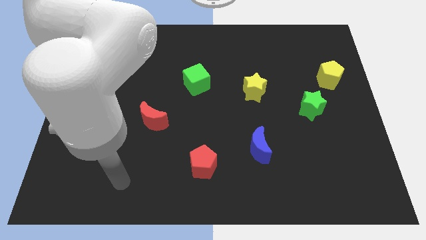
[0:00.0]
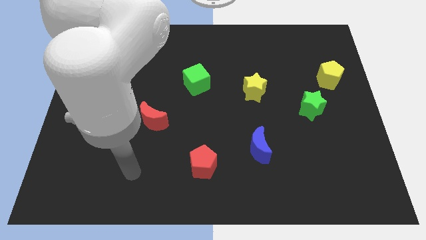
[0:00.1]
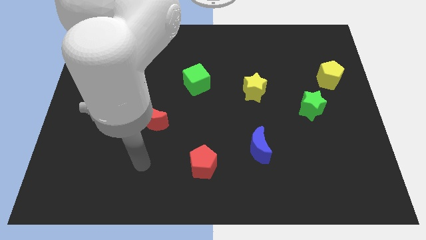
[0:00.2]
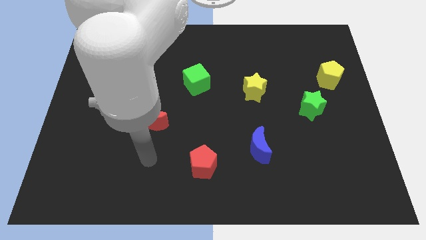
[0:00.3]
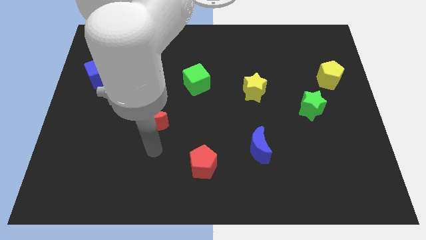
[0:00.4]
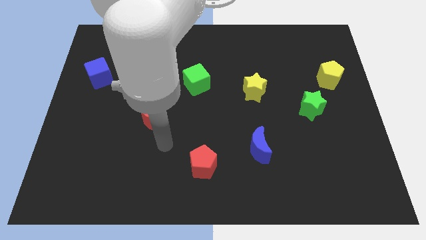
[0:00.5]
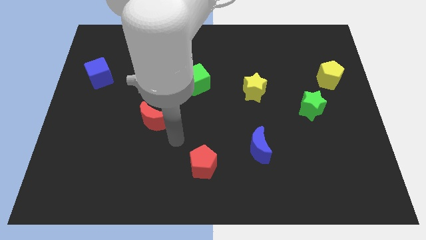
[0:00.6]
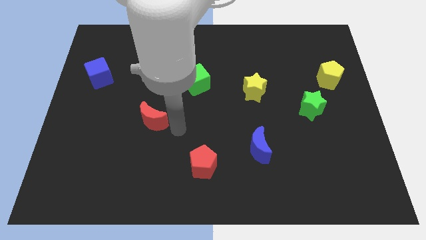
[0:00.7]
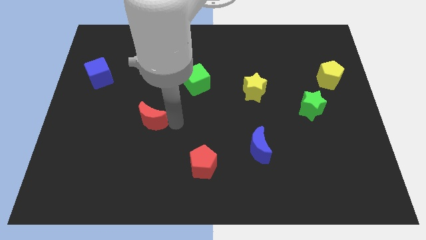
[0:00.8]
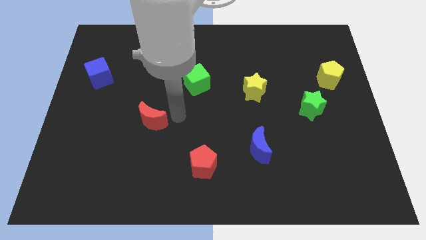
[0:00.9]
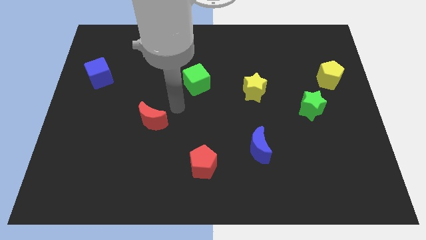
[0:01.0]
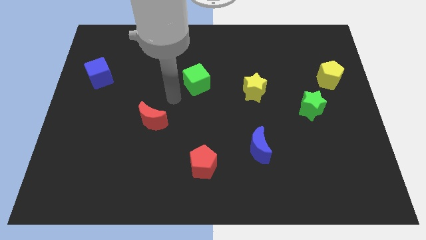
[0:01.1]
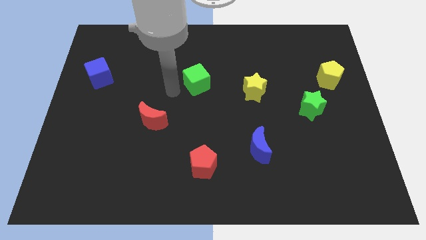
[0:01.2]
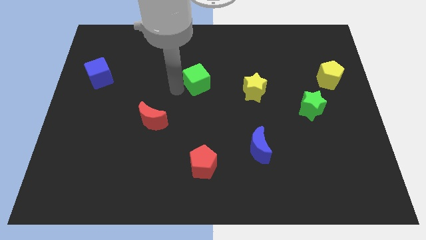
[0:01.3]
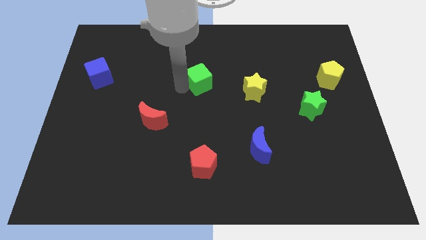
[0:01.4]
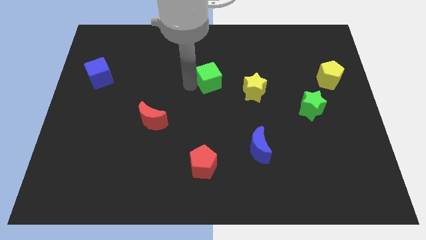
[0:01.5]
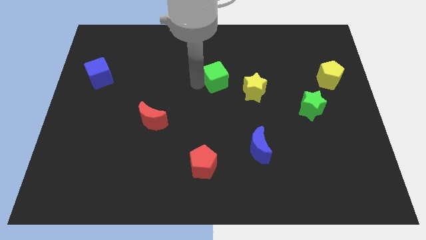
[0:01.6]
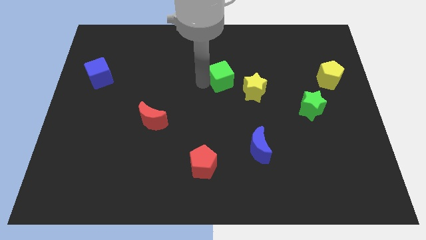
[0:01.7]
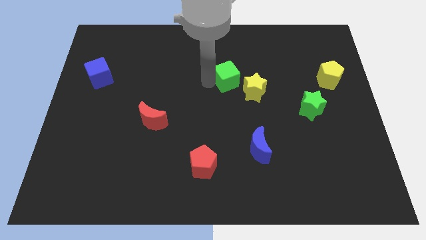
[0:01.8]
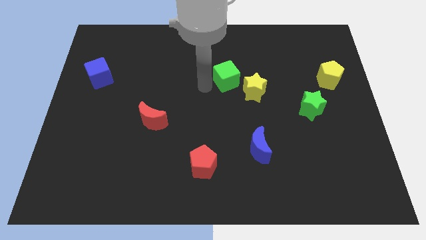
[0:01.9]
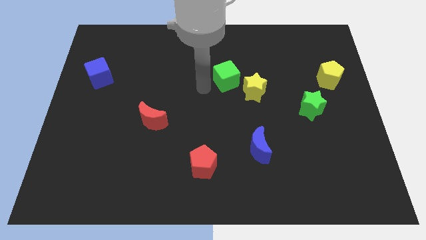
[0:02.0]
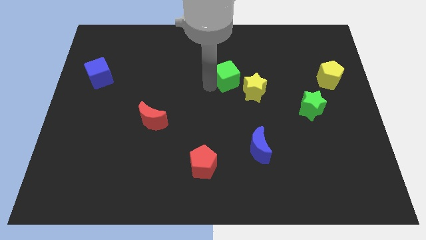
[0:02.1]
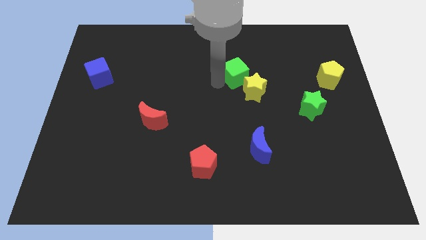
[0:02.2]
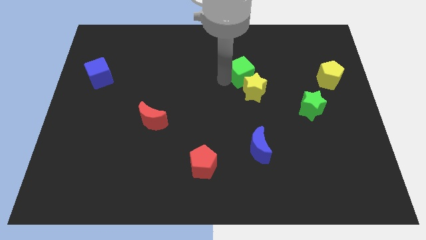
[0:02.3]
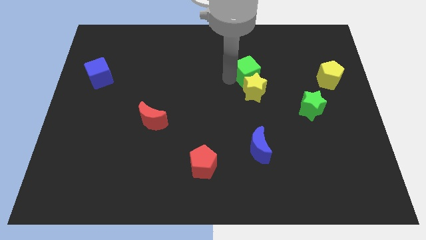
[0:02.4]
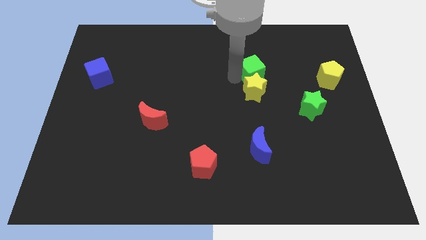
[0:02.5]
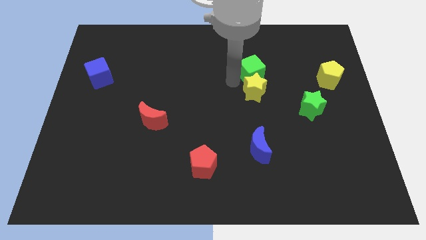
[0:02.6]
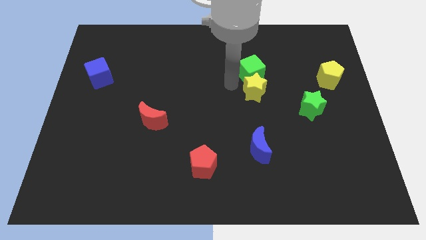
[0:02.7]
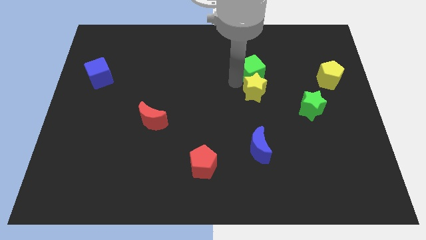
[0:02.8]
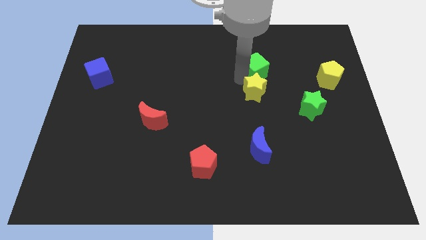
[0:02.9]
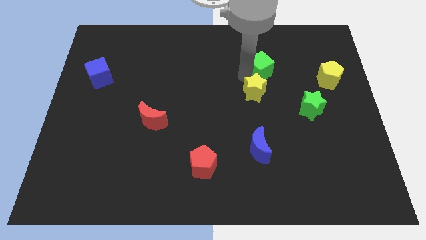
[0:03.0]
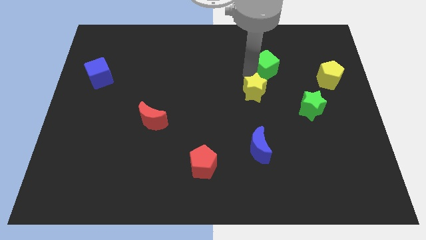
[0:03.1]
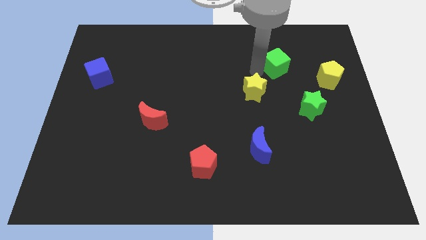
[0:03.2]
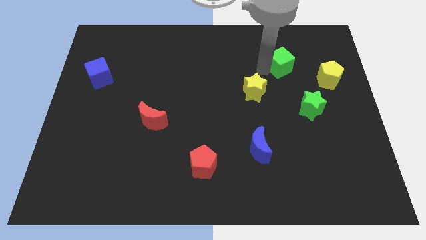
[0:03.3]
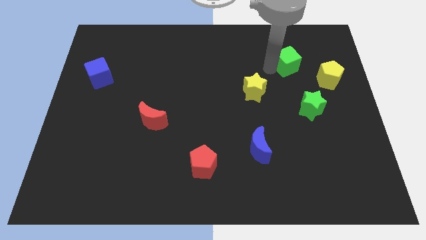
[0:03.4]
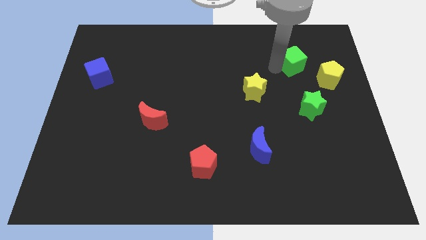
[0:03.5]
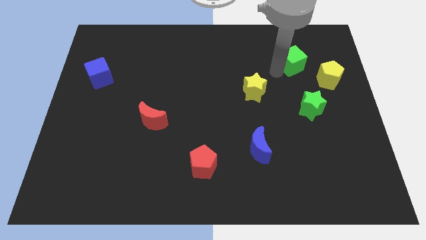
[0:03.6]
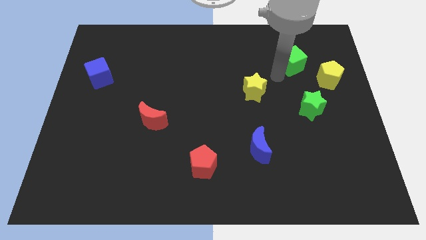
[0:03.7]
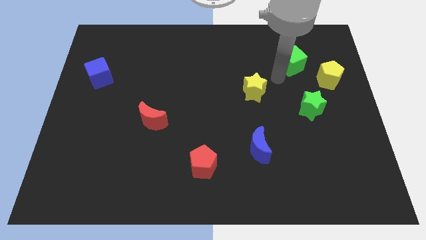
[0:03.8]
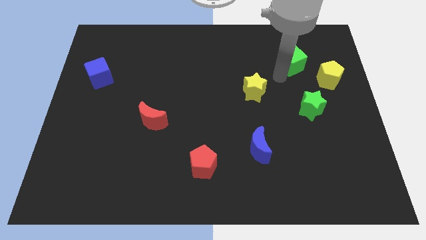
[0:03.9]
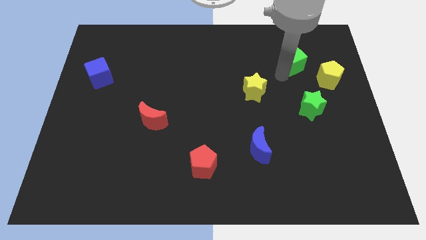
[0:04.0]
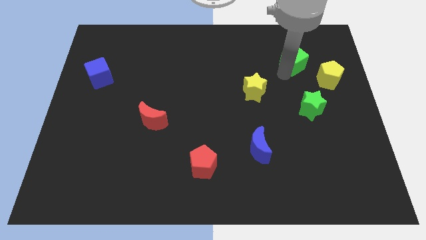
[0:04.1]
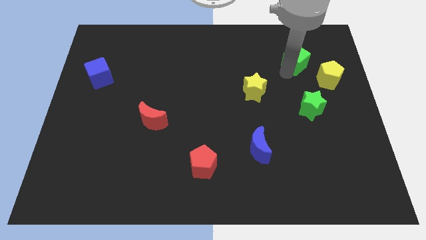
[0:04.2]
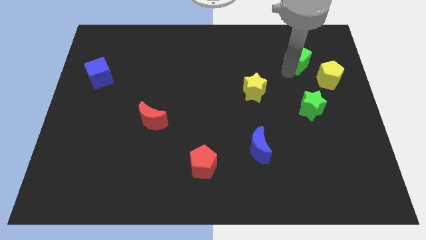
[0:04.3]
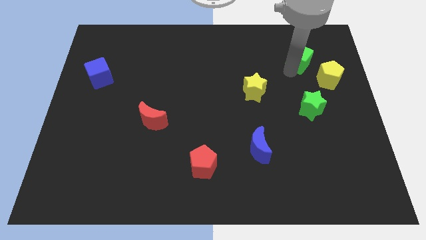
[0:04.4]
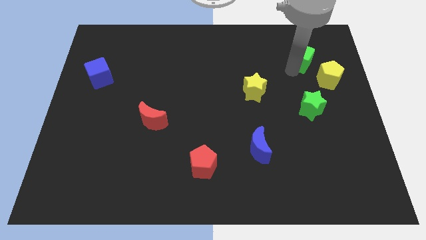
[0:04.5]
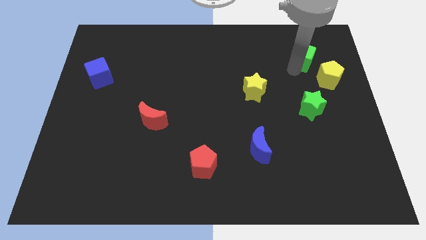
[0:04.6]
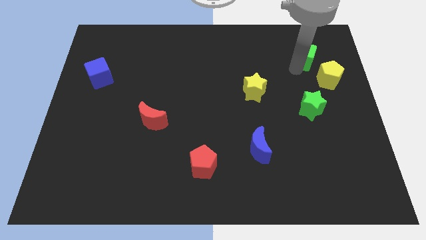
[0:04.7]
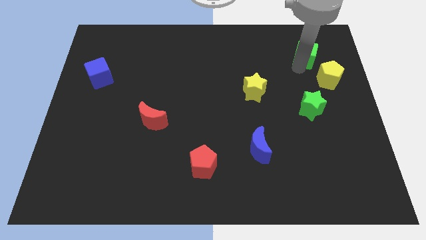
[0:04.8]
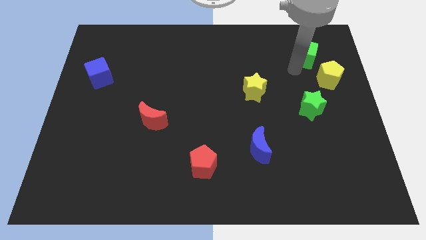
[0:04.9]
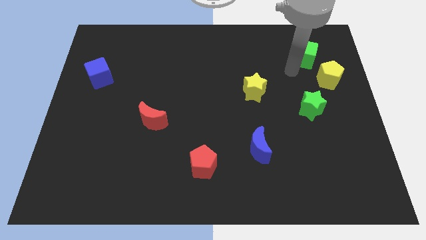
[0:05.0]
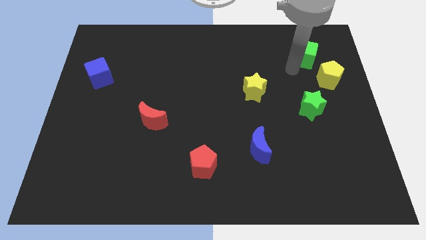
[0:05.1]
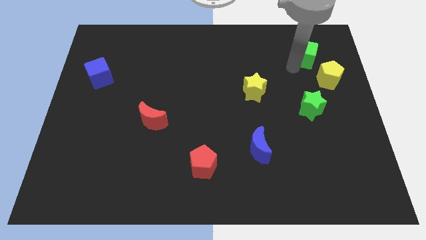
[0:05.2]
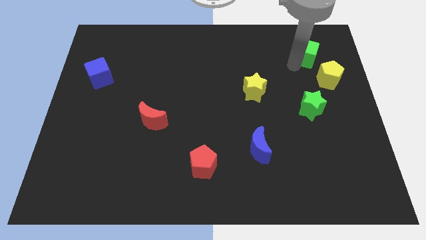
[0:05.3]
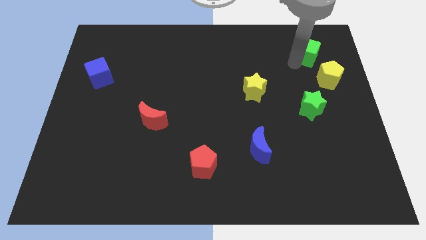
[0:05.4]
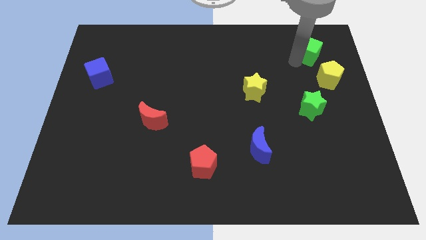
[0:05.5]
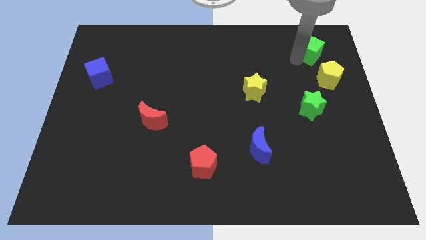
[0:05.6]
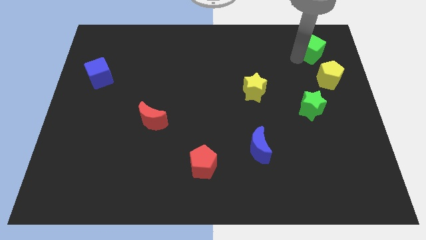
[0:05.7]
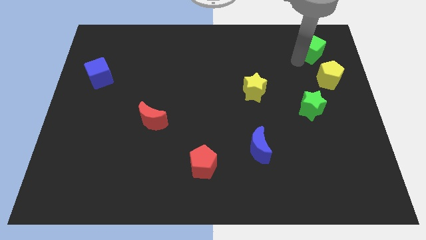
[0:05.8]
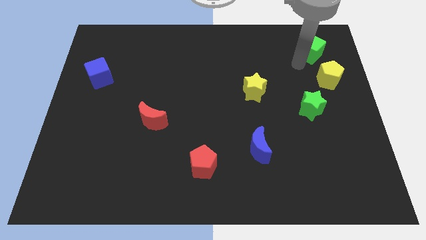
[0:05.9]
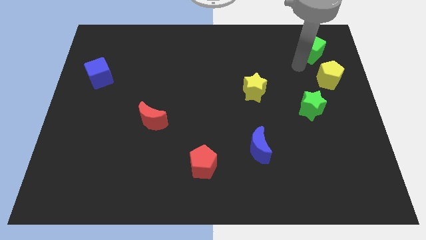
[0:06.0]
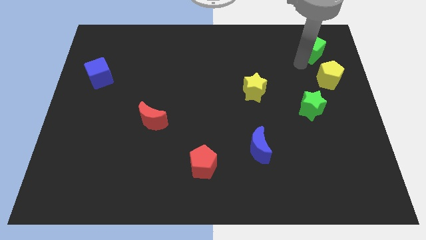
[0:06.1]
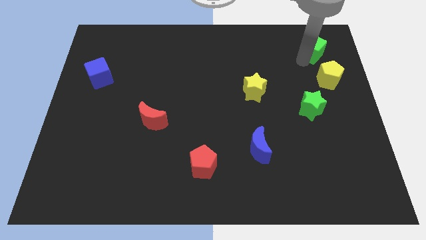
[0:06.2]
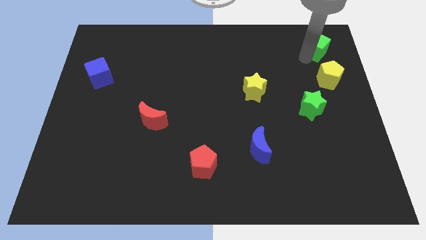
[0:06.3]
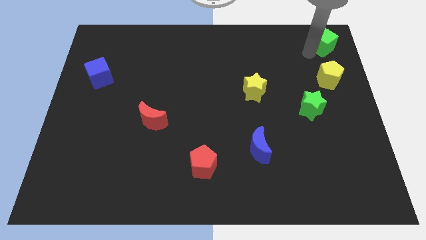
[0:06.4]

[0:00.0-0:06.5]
put the green cube to the top right of the board

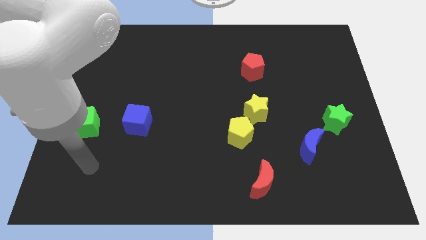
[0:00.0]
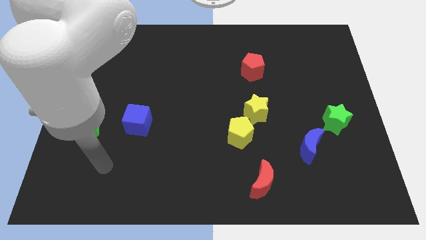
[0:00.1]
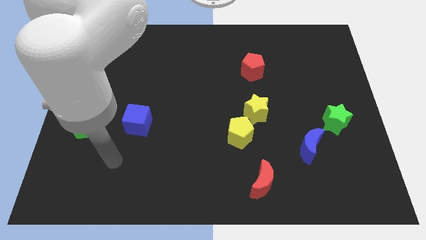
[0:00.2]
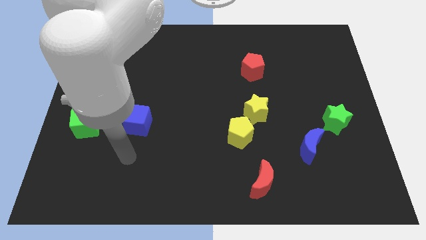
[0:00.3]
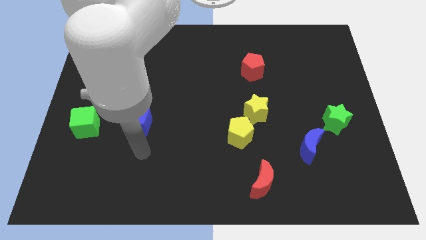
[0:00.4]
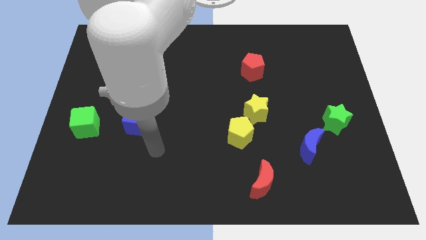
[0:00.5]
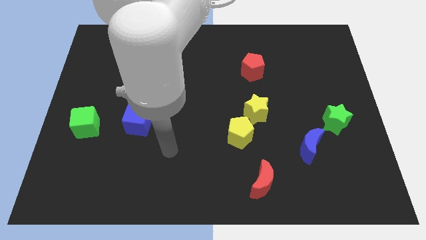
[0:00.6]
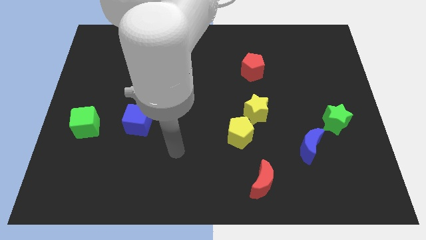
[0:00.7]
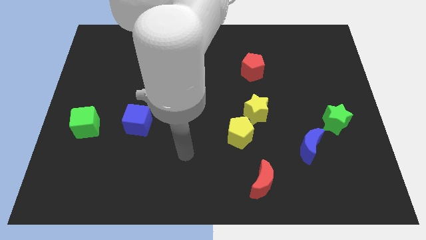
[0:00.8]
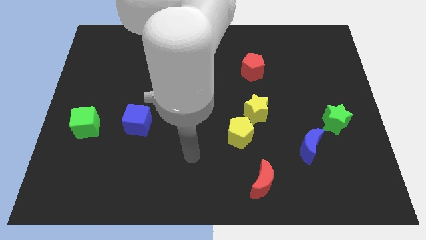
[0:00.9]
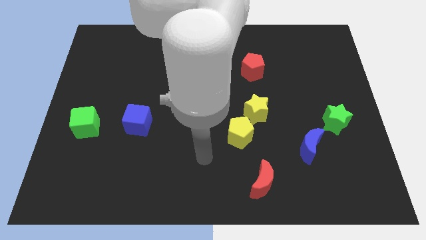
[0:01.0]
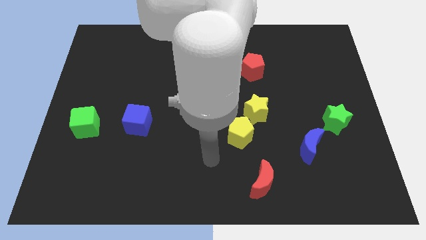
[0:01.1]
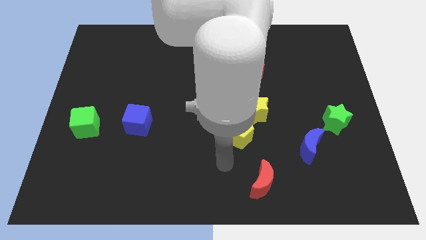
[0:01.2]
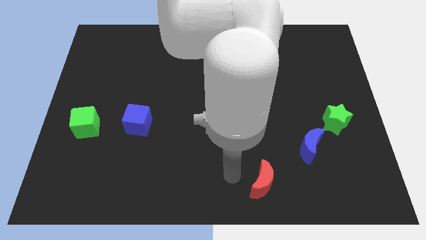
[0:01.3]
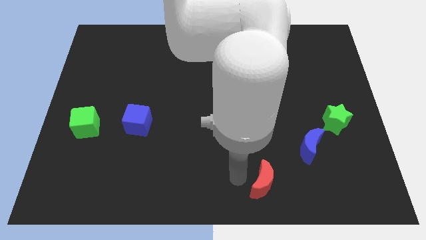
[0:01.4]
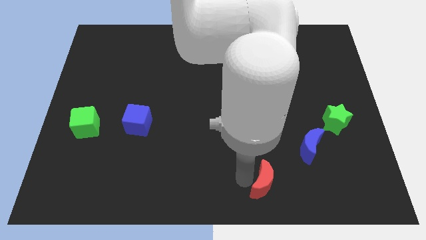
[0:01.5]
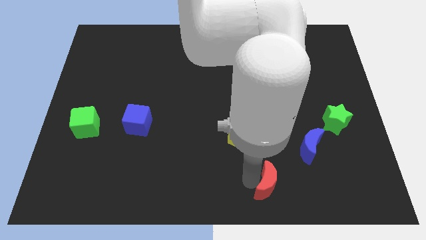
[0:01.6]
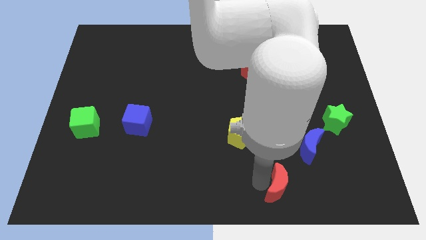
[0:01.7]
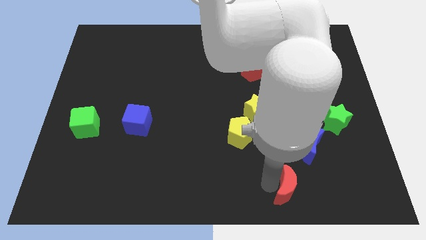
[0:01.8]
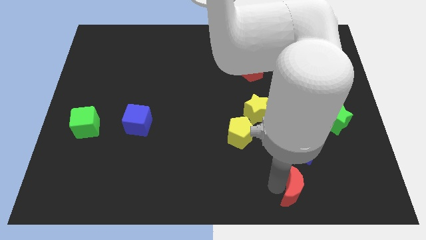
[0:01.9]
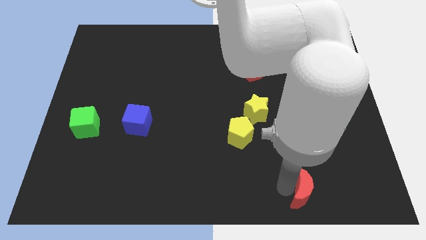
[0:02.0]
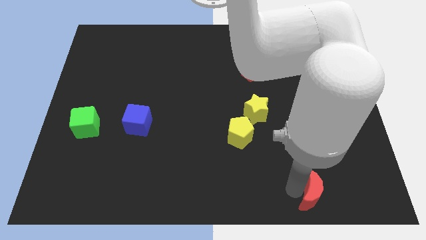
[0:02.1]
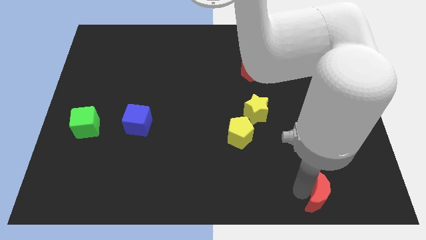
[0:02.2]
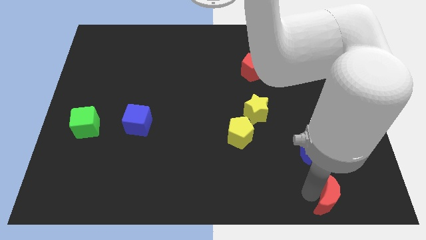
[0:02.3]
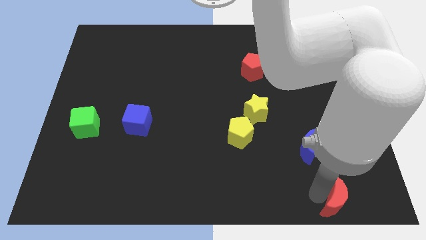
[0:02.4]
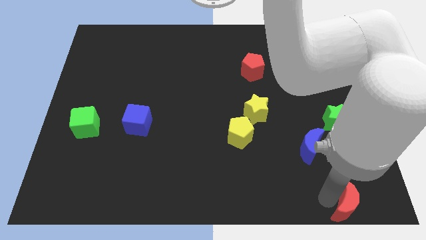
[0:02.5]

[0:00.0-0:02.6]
slide the red moon to the bottom right
